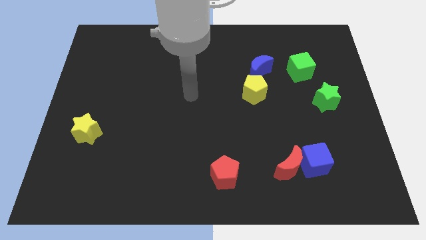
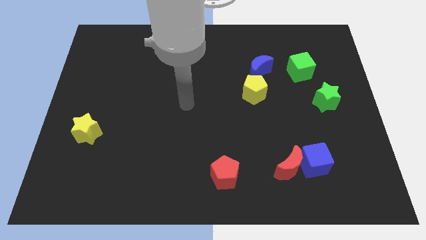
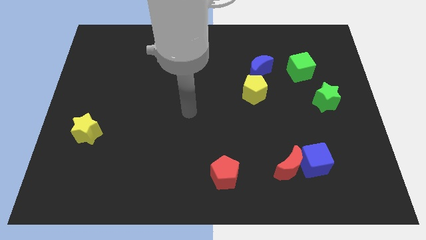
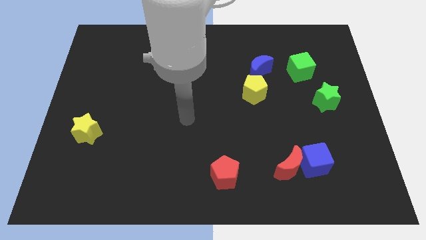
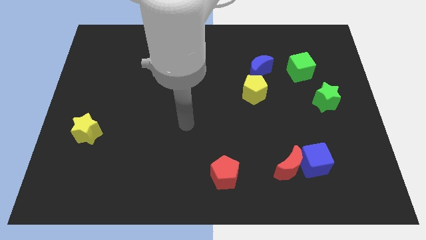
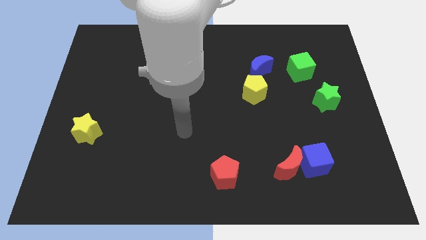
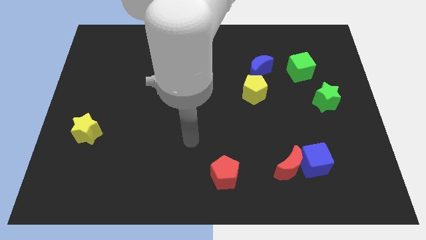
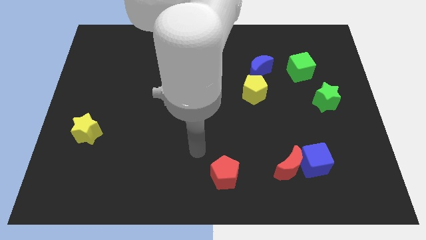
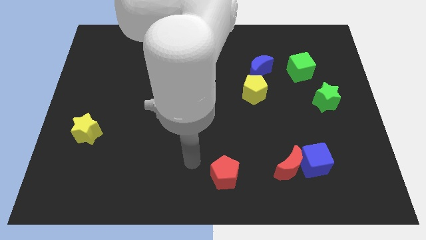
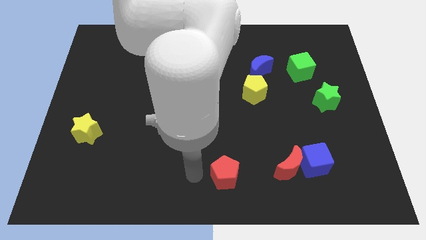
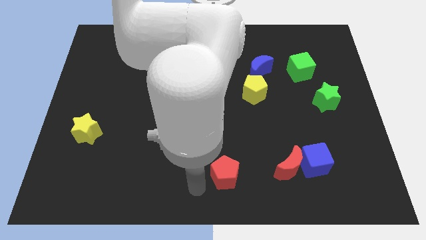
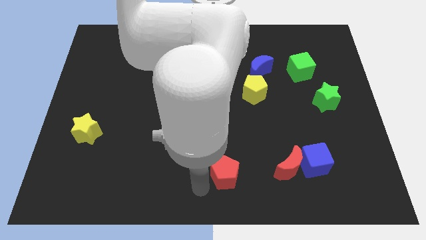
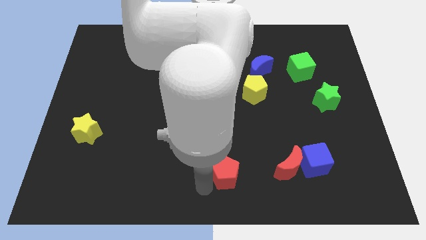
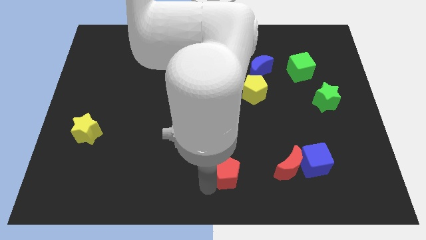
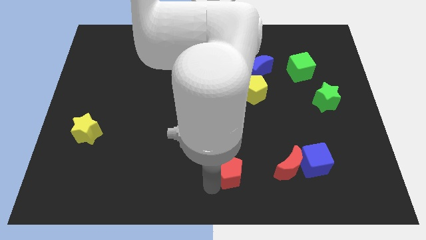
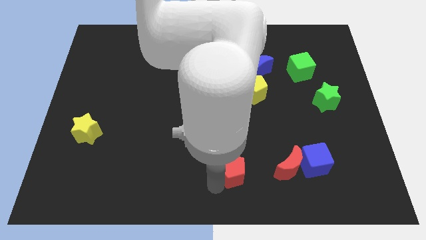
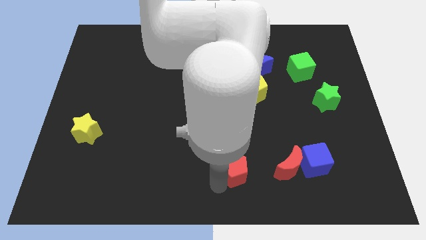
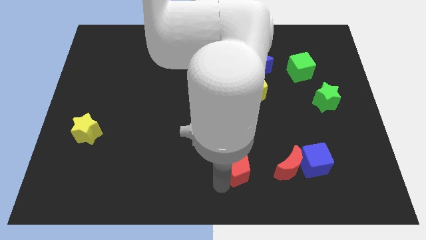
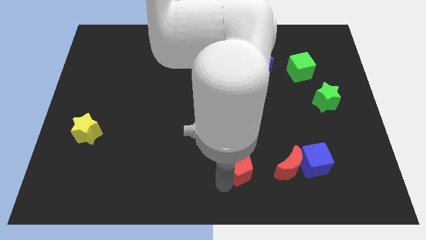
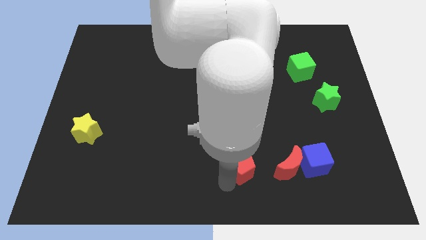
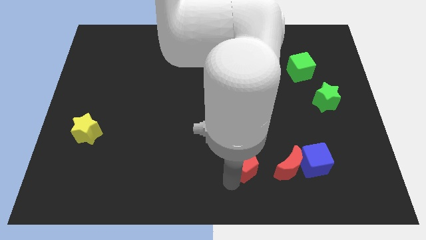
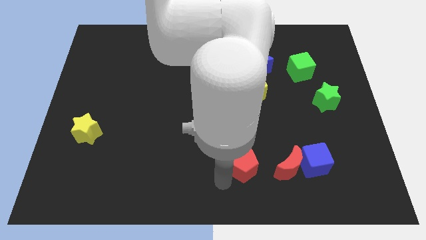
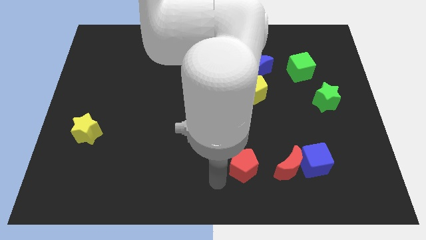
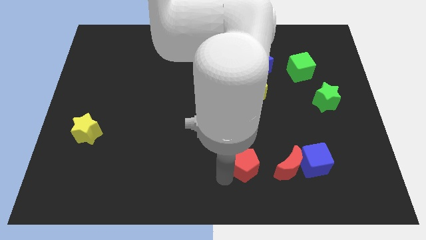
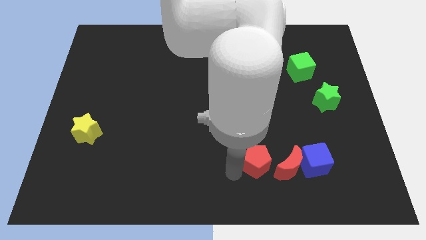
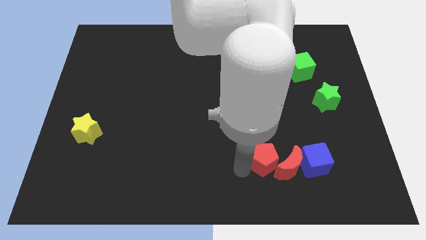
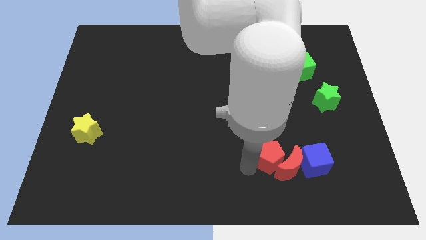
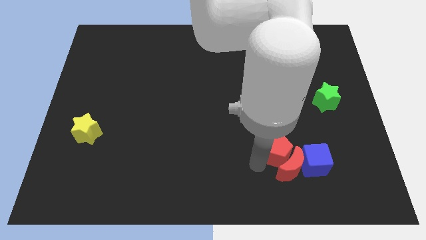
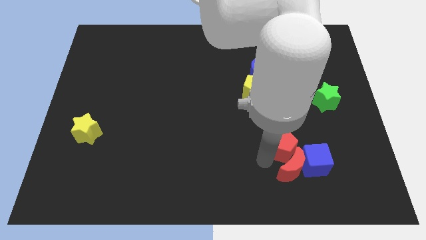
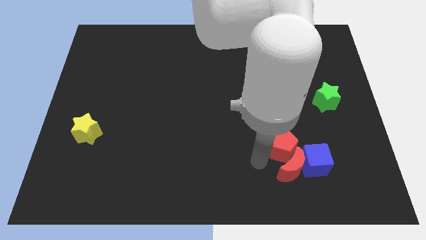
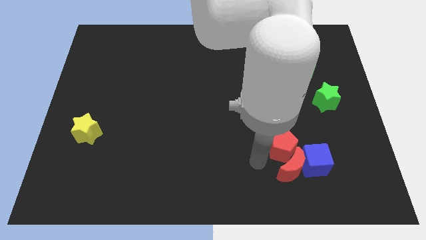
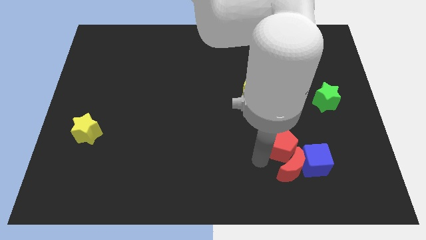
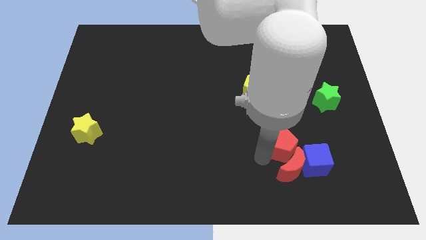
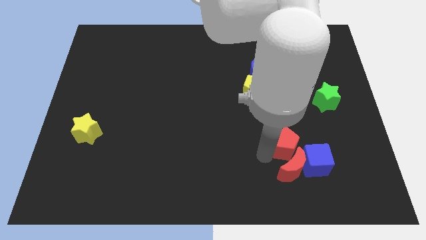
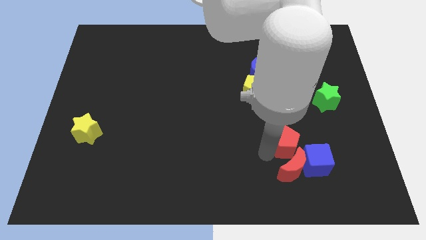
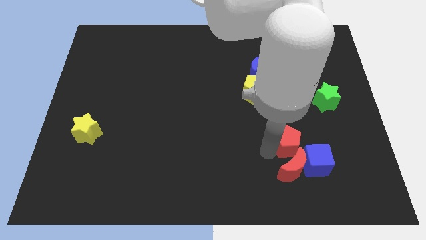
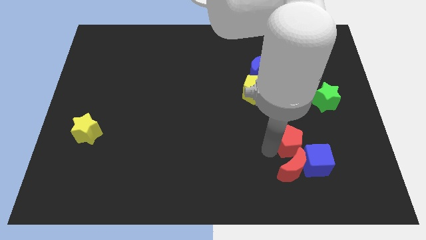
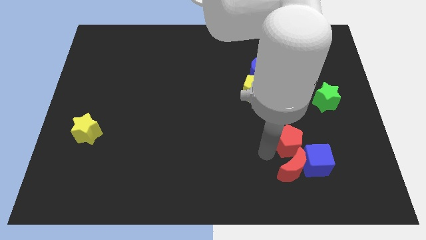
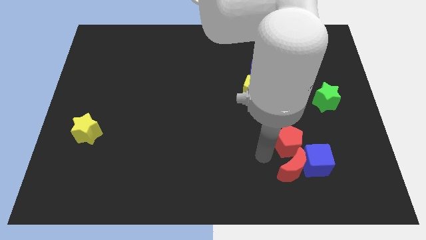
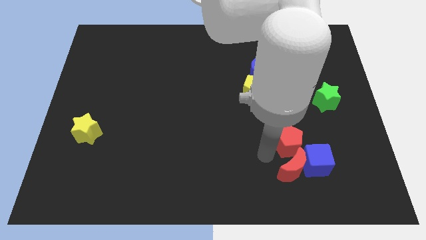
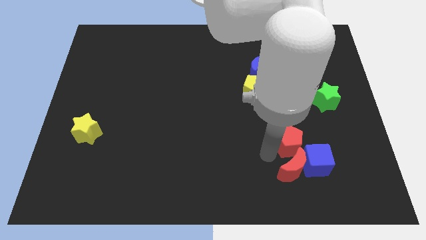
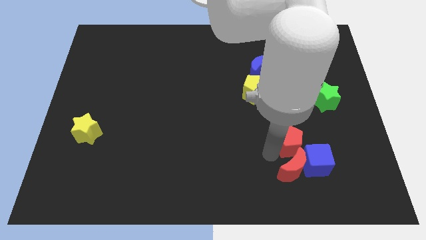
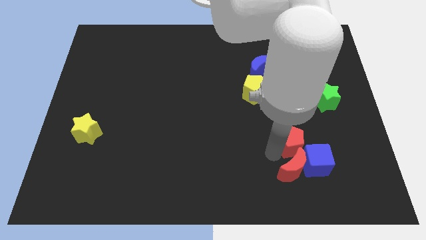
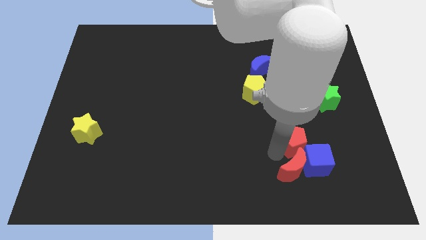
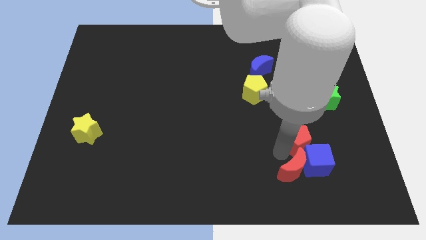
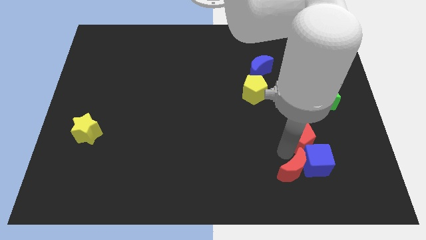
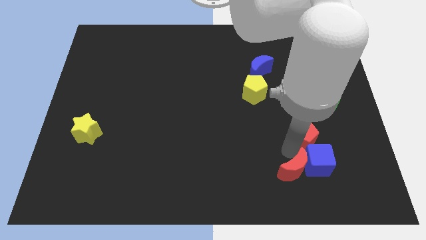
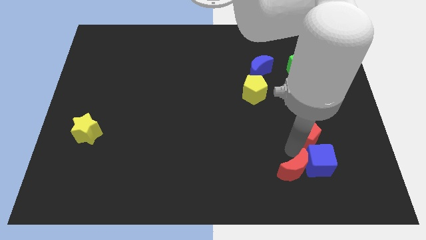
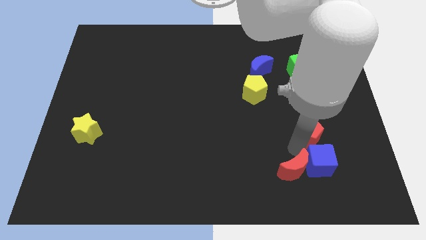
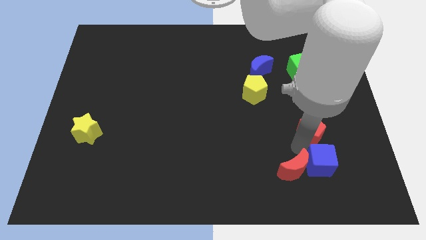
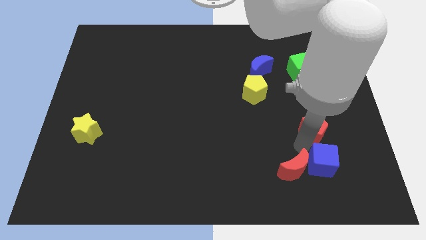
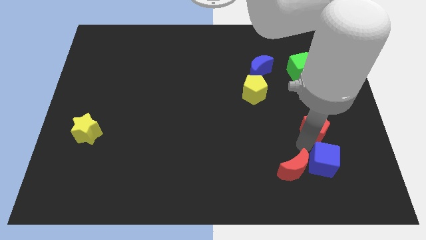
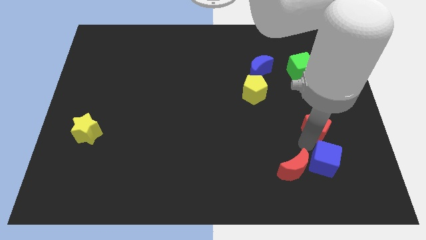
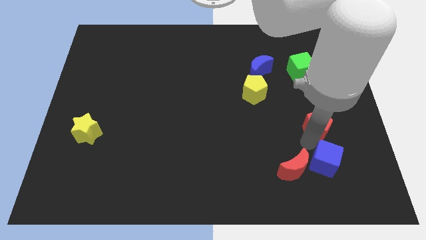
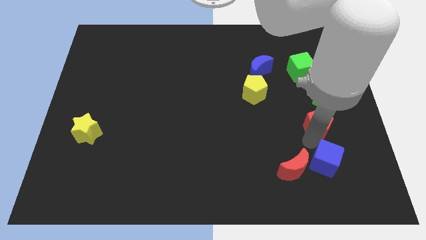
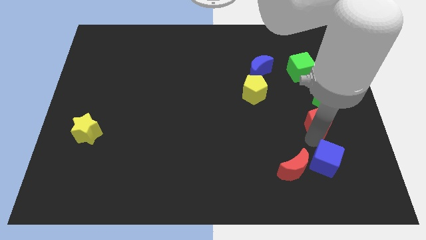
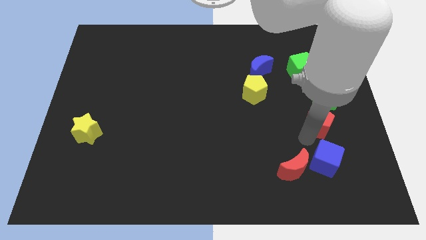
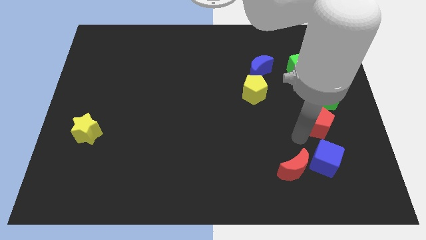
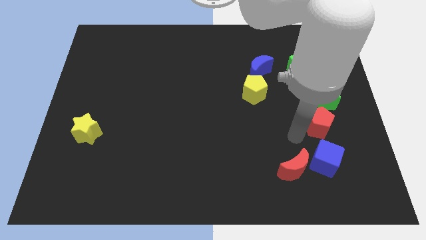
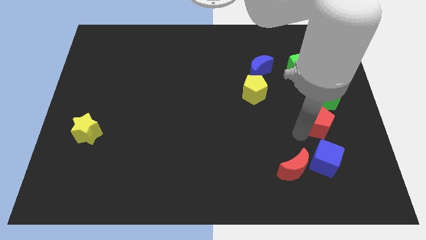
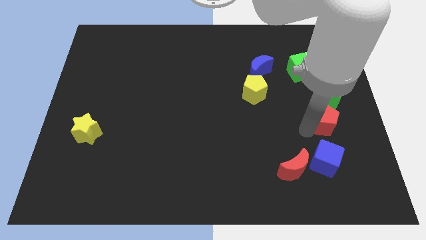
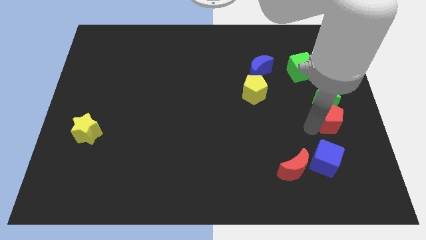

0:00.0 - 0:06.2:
push the red pentagon to the center right
